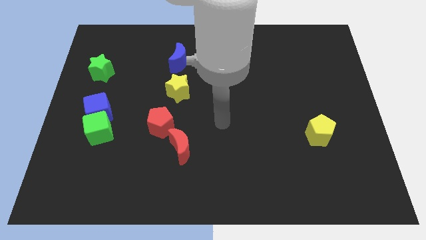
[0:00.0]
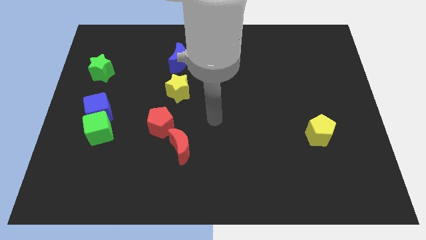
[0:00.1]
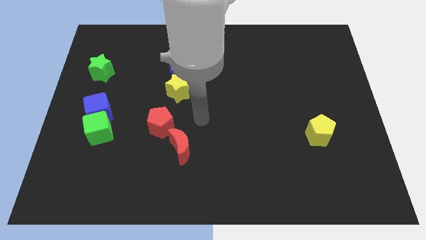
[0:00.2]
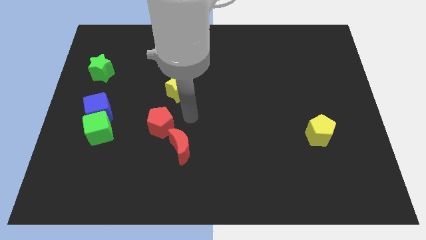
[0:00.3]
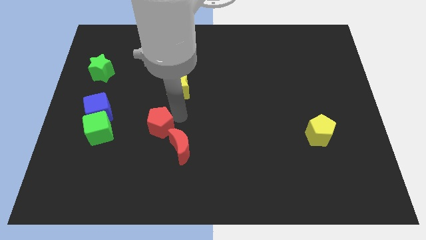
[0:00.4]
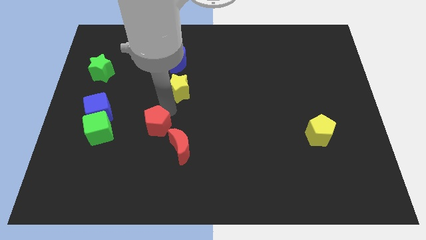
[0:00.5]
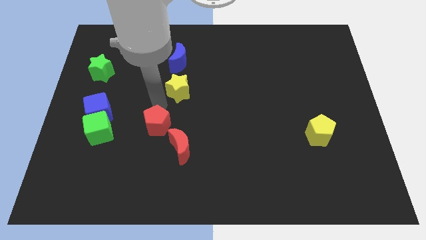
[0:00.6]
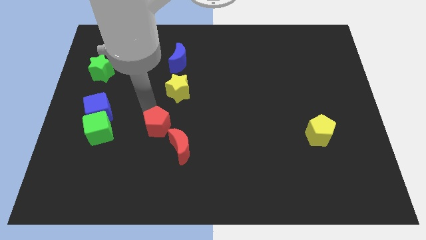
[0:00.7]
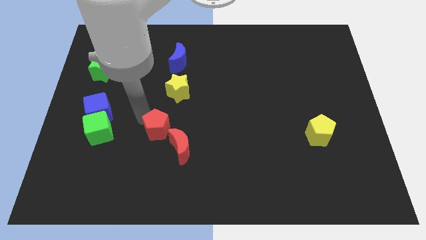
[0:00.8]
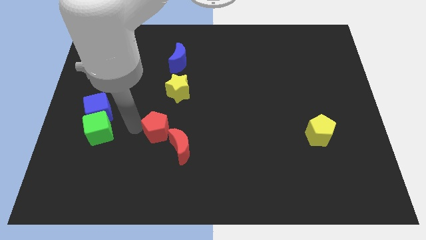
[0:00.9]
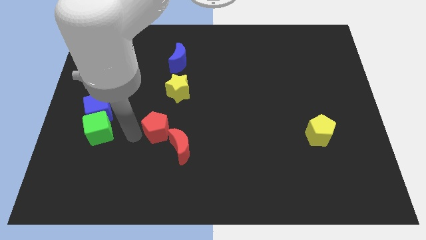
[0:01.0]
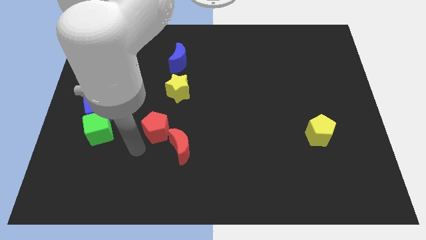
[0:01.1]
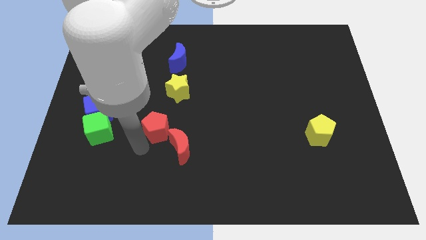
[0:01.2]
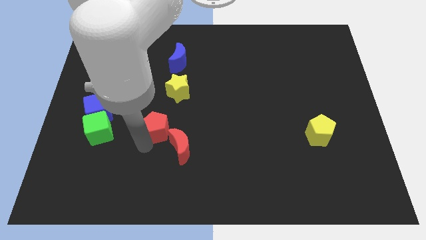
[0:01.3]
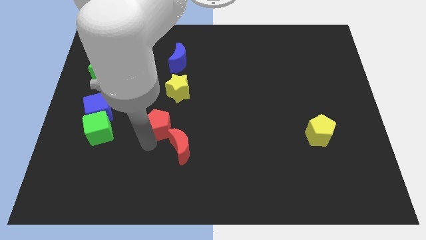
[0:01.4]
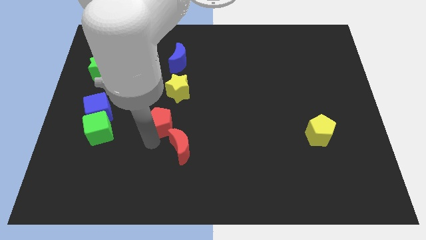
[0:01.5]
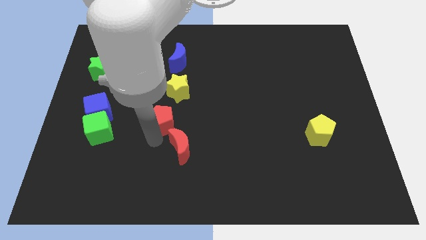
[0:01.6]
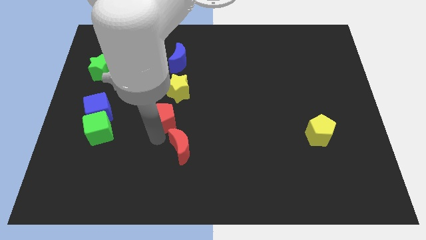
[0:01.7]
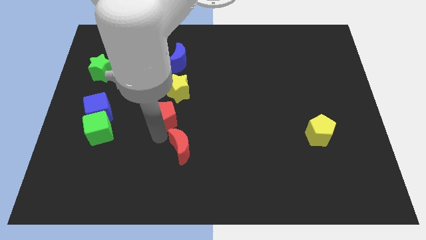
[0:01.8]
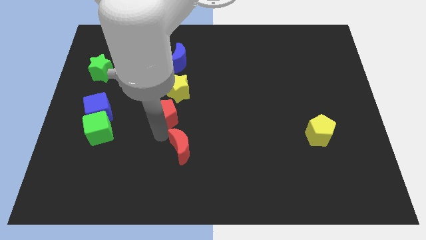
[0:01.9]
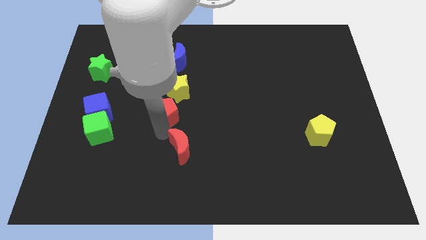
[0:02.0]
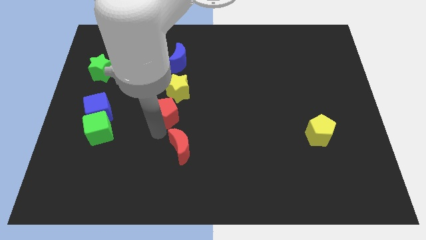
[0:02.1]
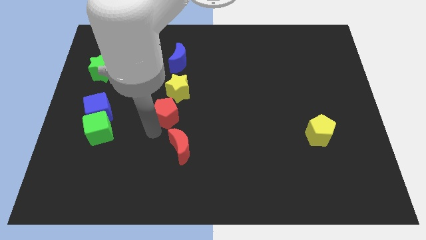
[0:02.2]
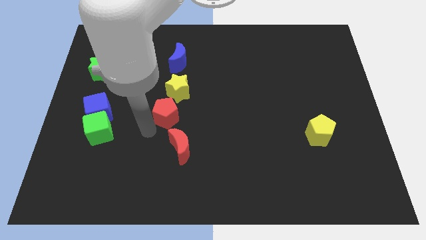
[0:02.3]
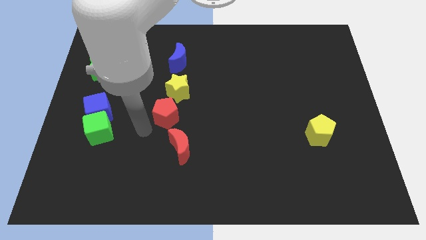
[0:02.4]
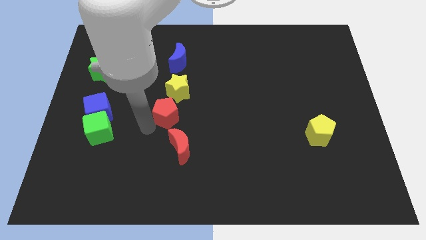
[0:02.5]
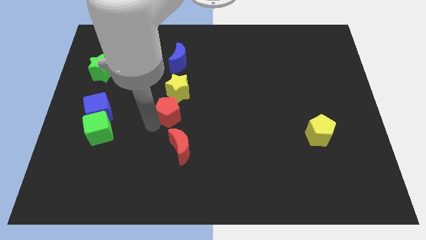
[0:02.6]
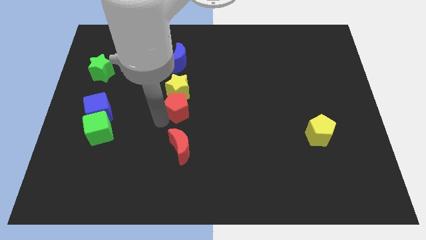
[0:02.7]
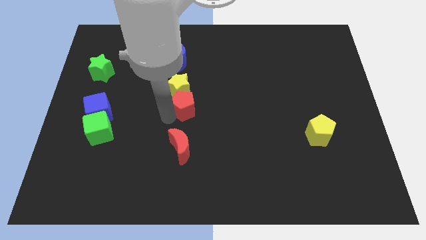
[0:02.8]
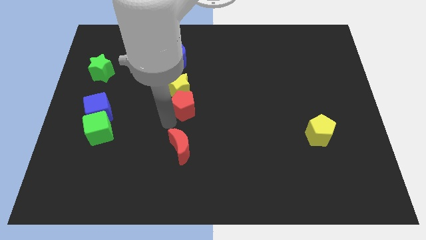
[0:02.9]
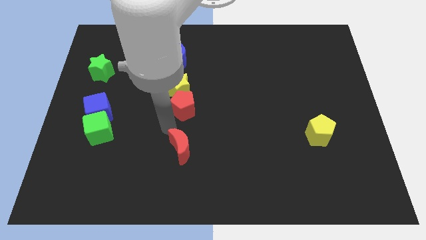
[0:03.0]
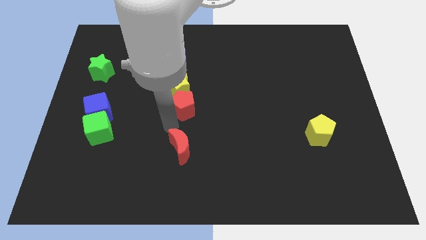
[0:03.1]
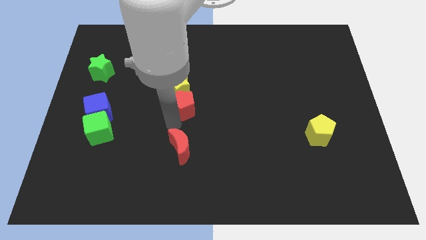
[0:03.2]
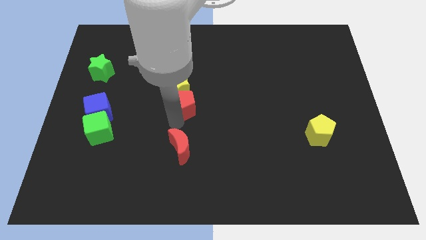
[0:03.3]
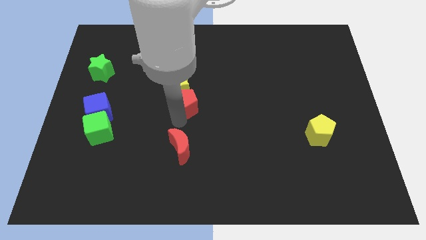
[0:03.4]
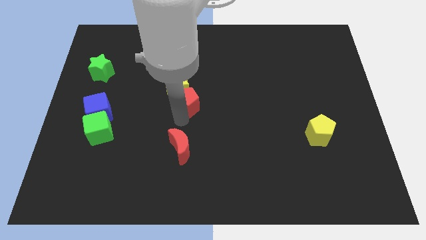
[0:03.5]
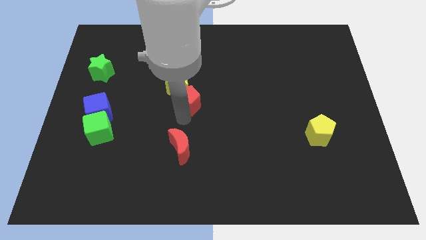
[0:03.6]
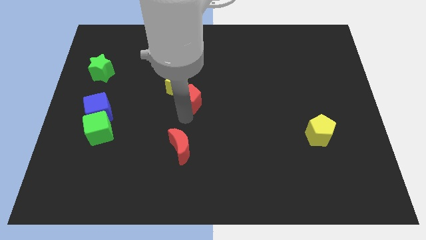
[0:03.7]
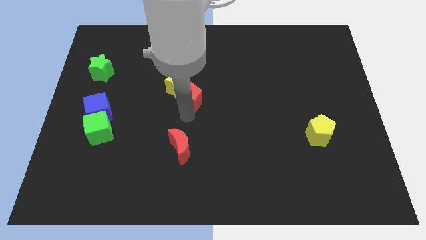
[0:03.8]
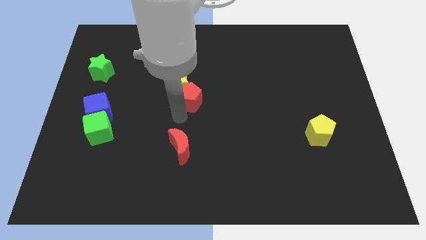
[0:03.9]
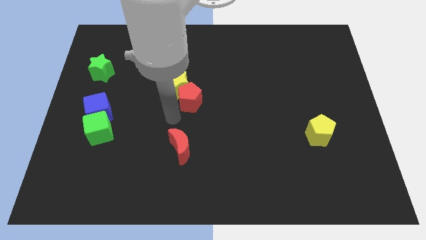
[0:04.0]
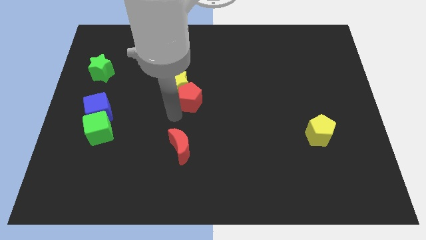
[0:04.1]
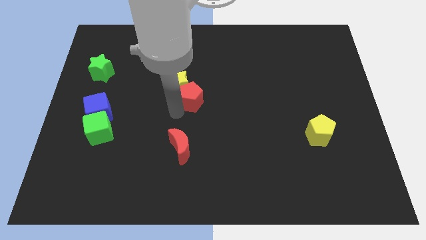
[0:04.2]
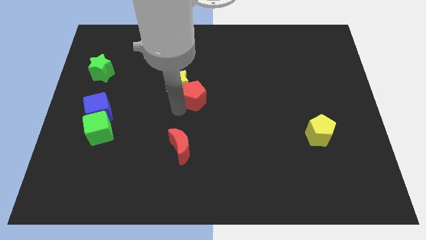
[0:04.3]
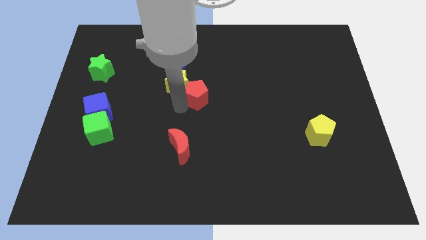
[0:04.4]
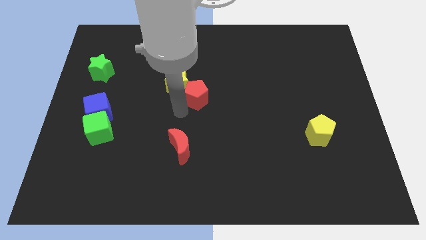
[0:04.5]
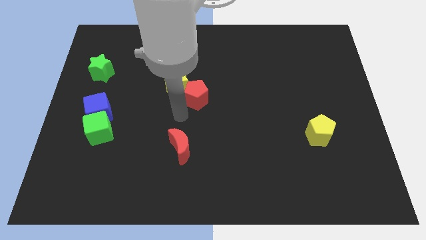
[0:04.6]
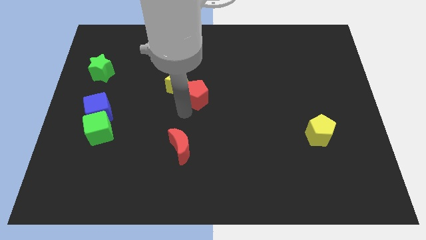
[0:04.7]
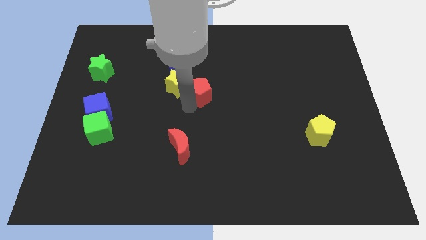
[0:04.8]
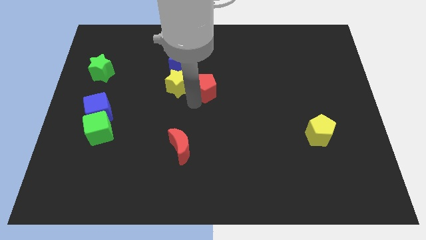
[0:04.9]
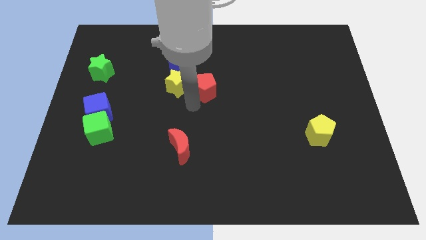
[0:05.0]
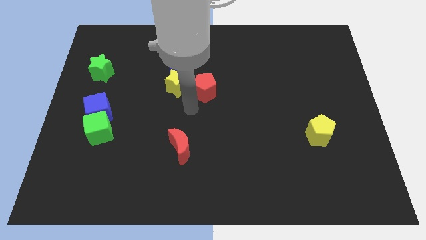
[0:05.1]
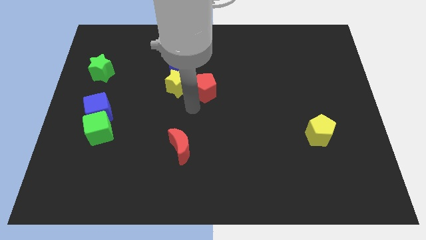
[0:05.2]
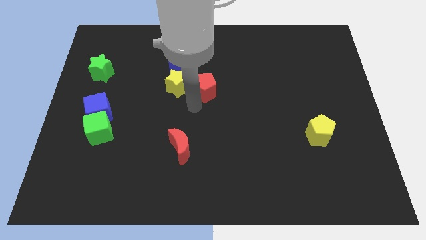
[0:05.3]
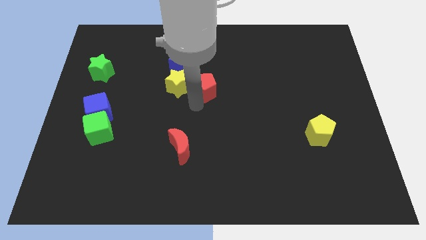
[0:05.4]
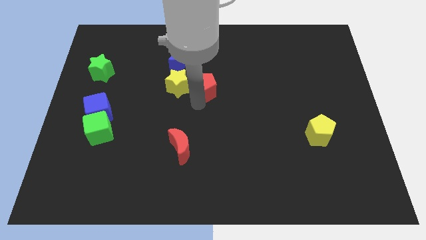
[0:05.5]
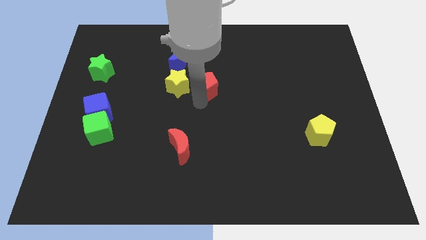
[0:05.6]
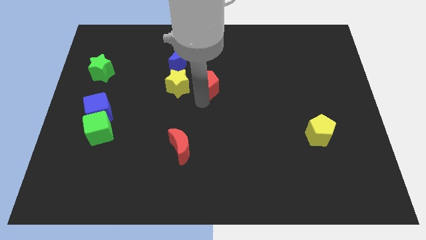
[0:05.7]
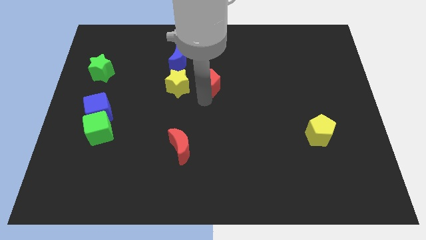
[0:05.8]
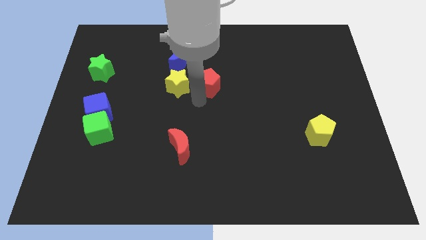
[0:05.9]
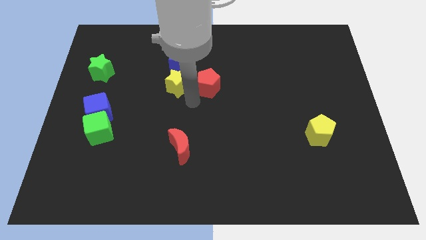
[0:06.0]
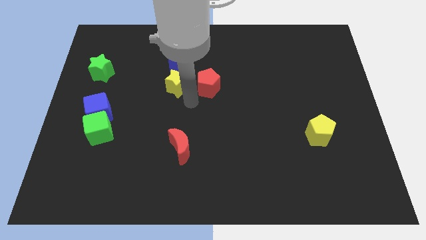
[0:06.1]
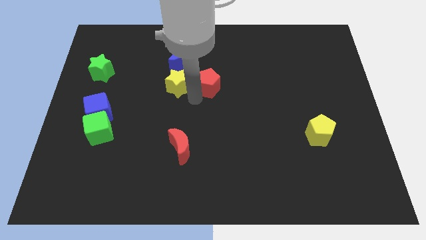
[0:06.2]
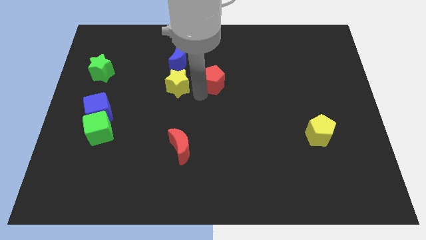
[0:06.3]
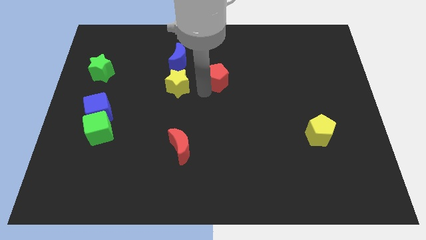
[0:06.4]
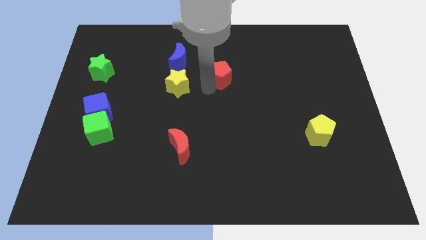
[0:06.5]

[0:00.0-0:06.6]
push the red pentagon upwards and to the right

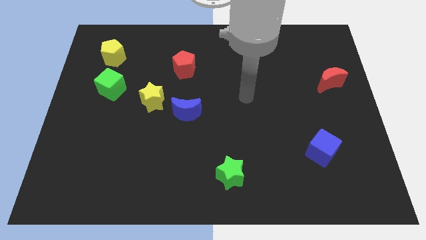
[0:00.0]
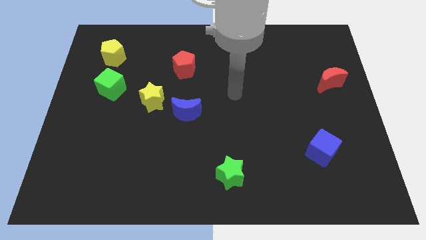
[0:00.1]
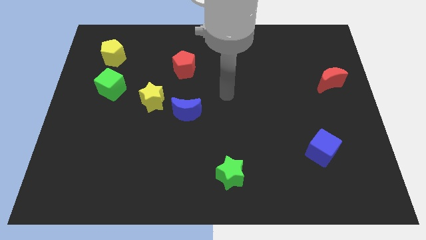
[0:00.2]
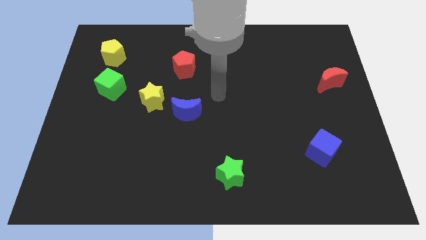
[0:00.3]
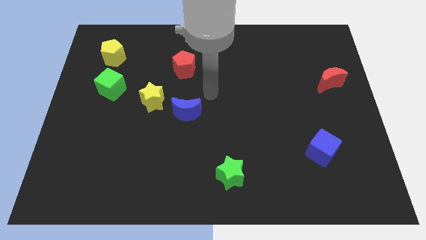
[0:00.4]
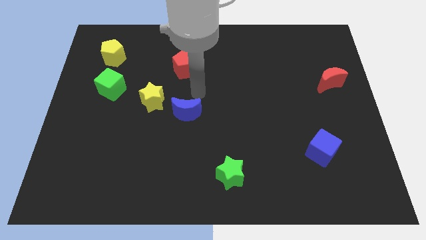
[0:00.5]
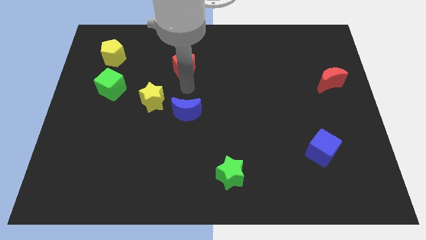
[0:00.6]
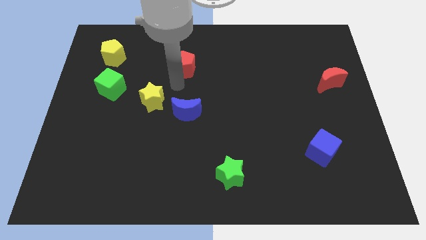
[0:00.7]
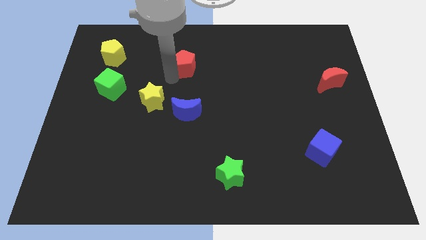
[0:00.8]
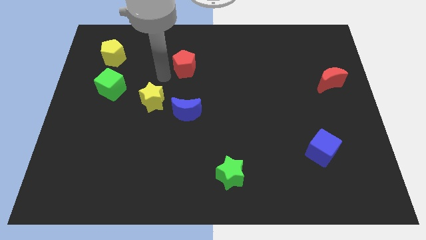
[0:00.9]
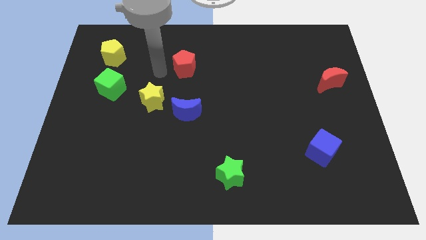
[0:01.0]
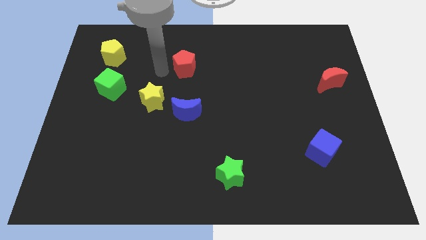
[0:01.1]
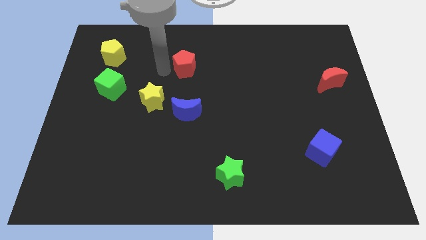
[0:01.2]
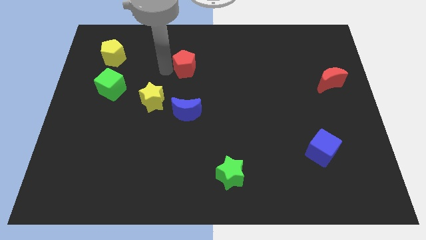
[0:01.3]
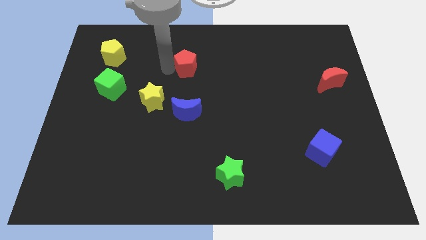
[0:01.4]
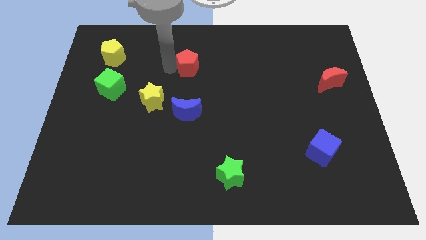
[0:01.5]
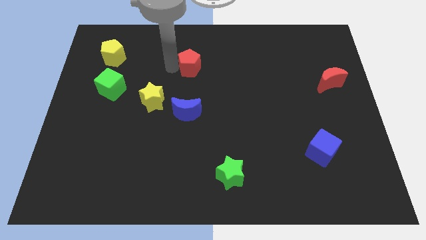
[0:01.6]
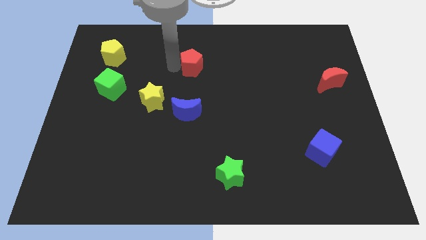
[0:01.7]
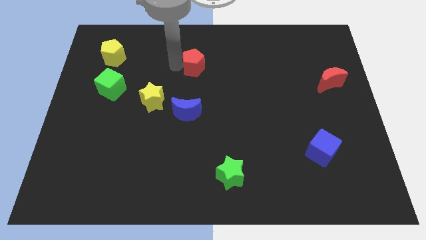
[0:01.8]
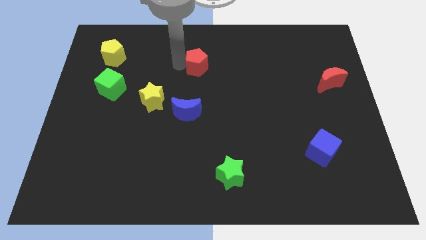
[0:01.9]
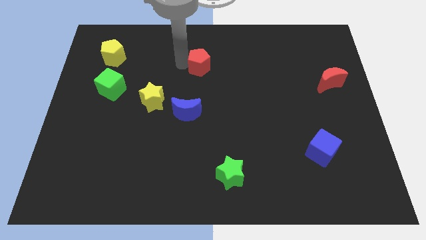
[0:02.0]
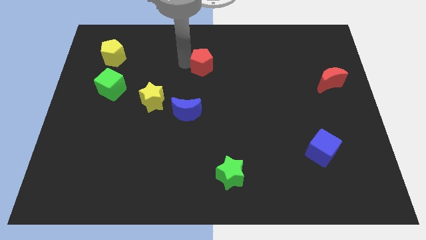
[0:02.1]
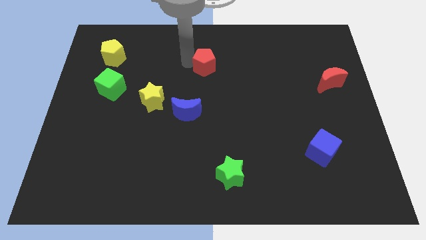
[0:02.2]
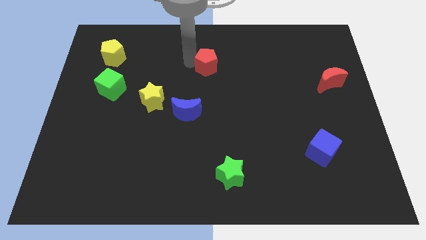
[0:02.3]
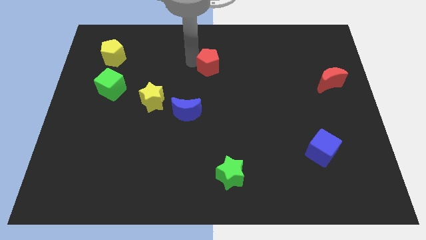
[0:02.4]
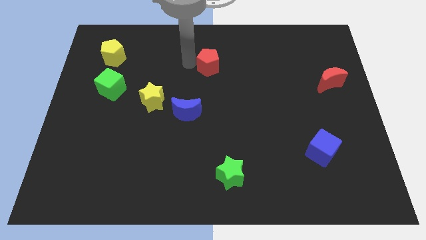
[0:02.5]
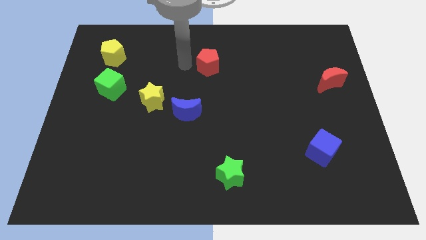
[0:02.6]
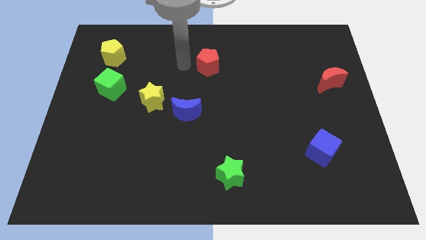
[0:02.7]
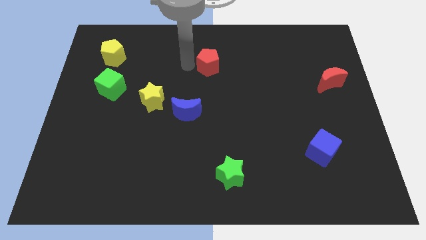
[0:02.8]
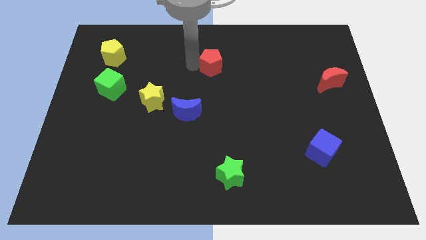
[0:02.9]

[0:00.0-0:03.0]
move the red pentagon a bit right
